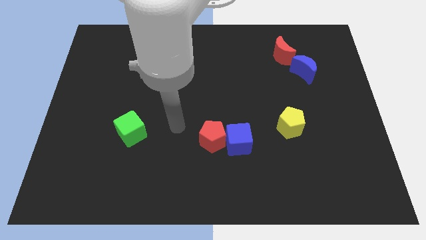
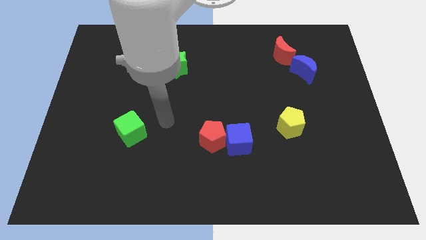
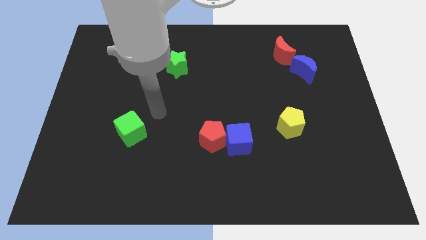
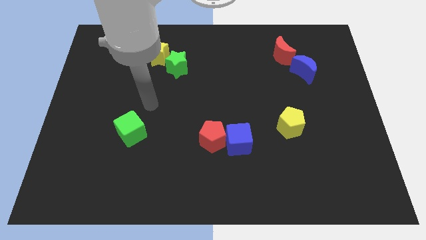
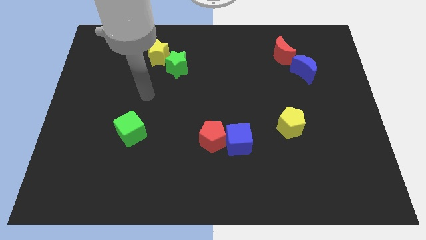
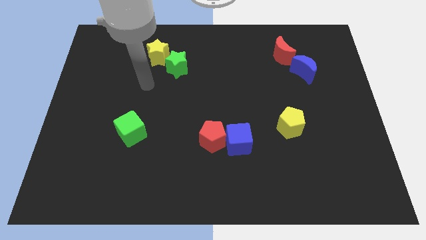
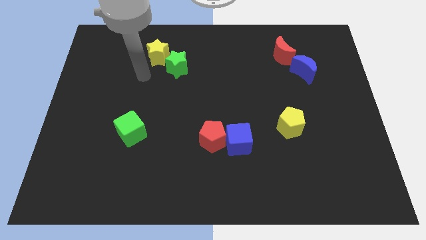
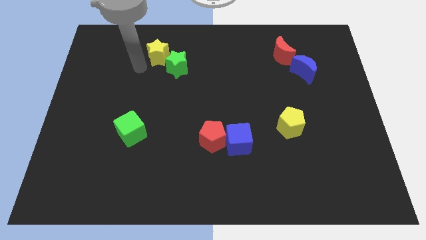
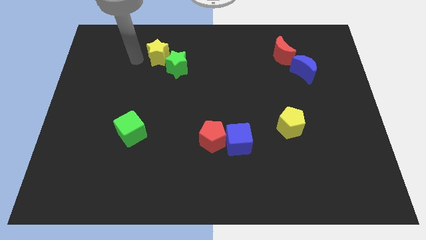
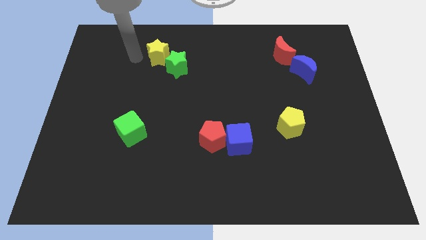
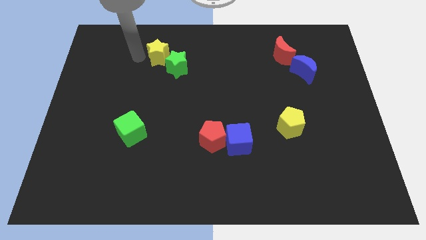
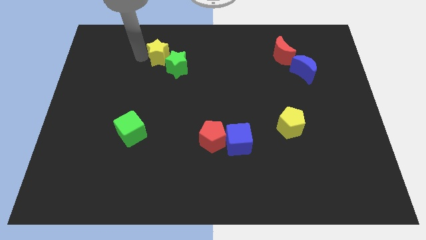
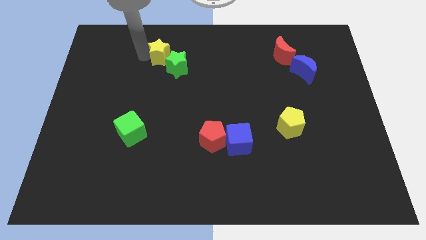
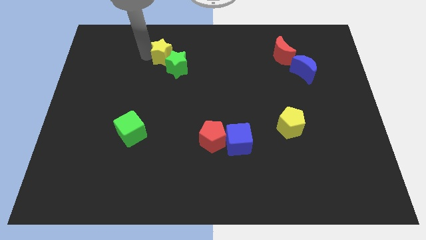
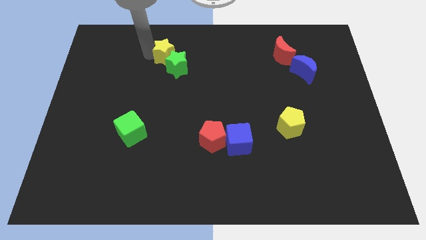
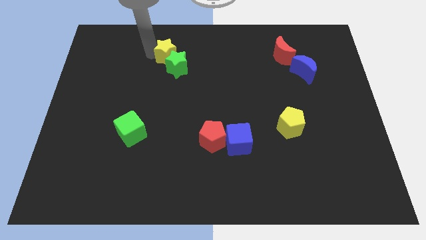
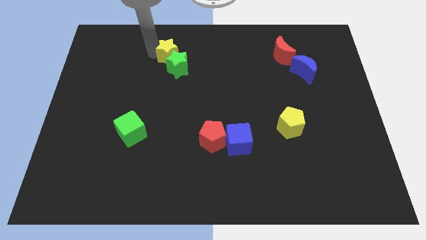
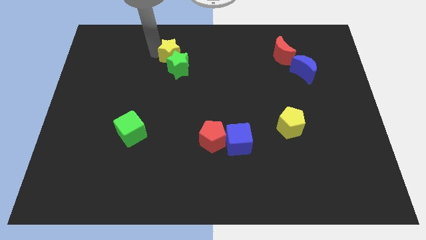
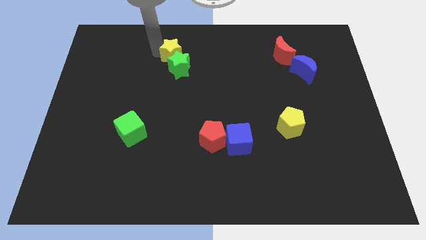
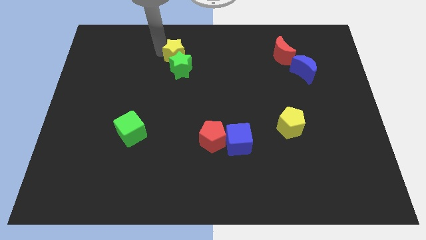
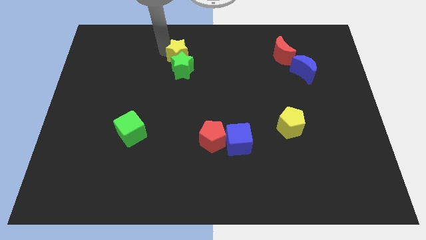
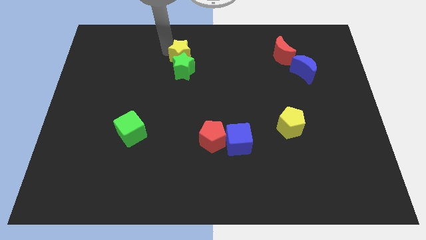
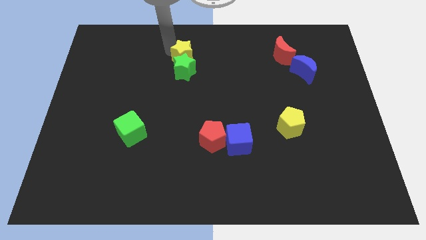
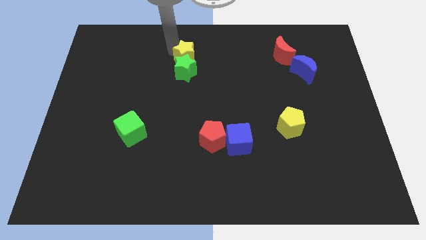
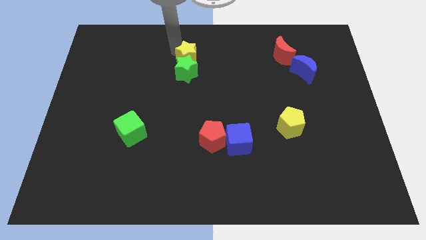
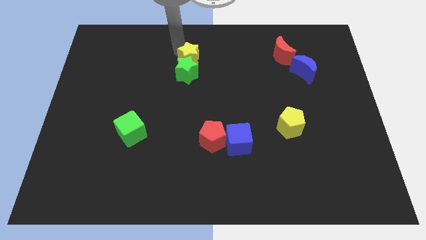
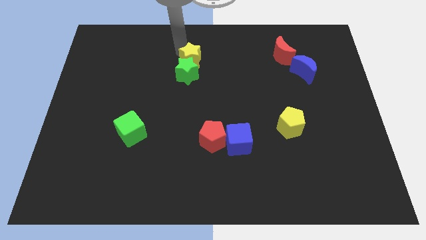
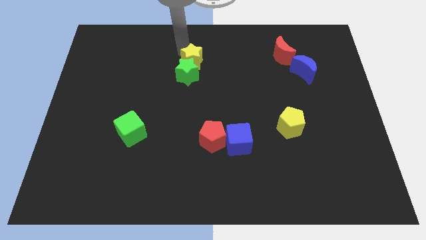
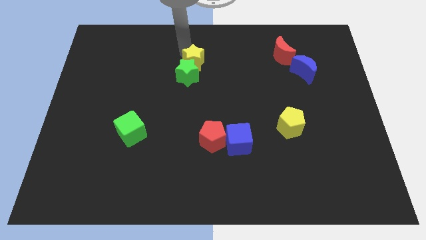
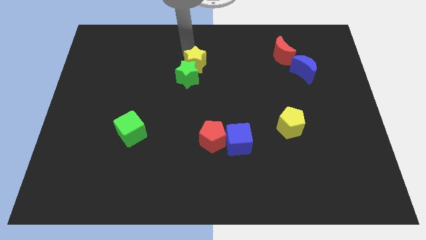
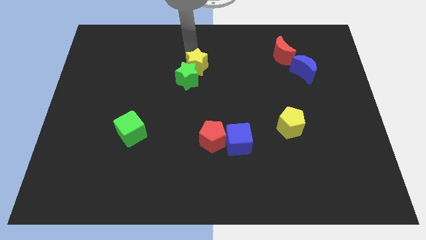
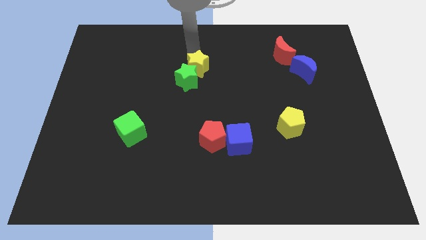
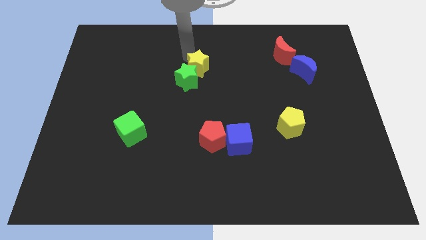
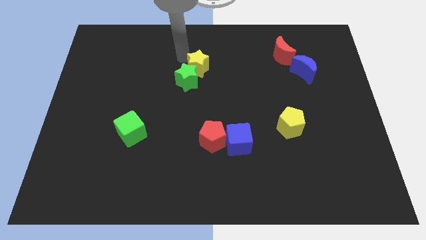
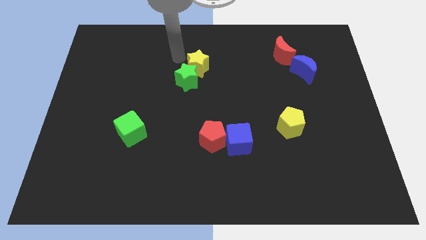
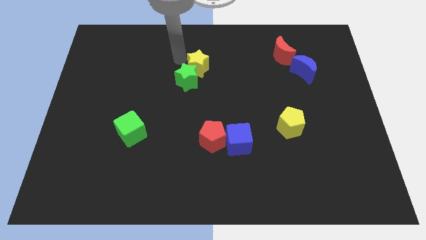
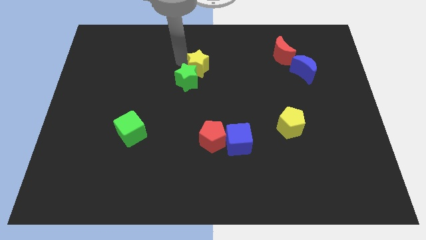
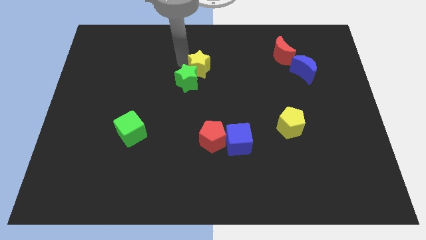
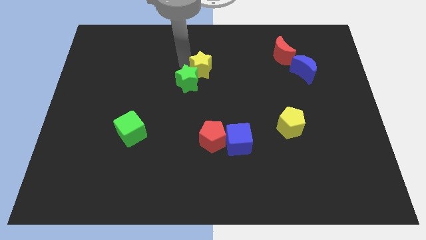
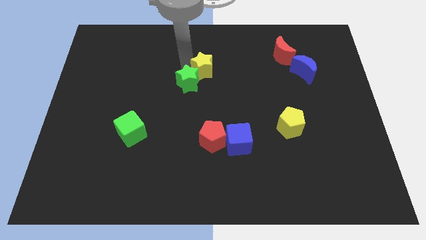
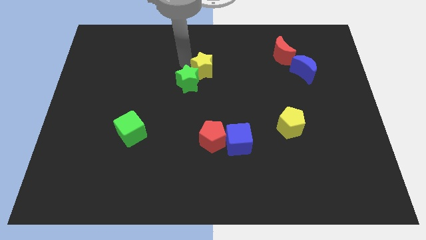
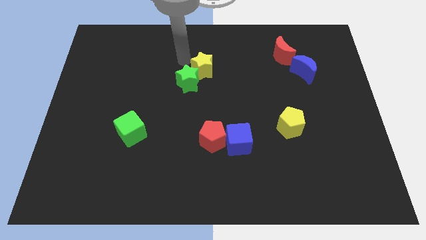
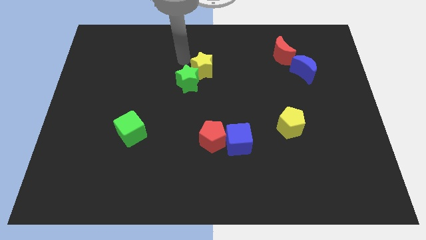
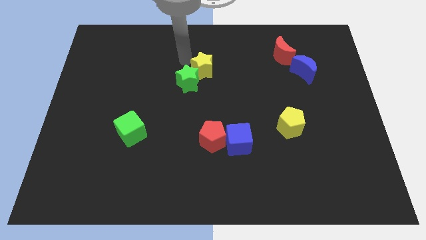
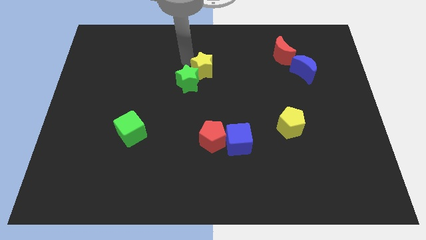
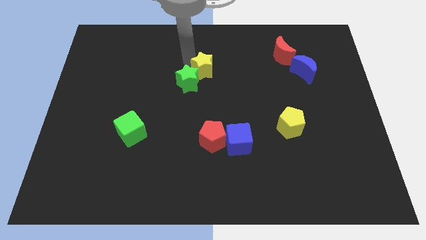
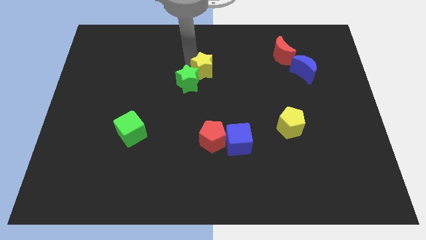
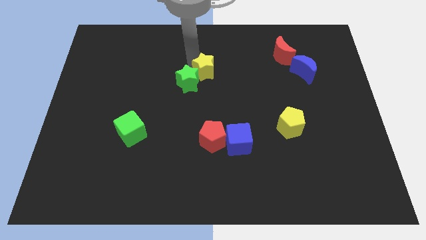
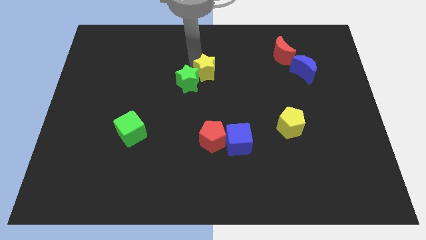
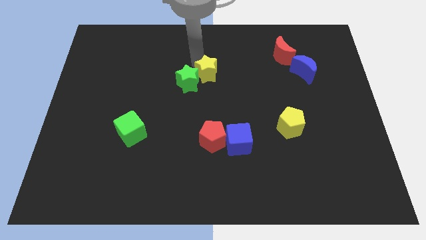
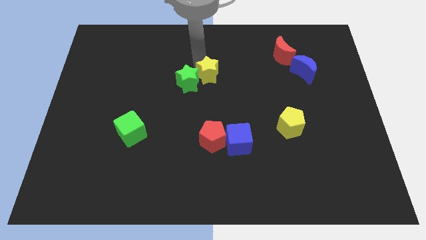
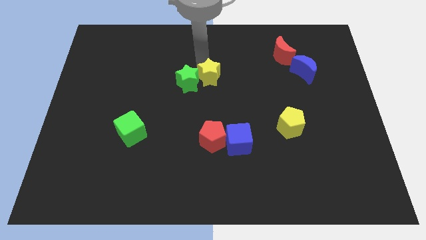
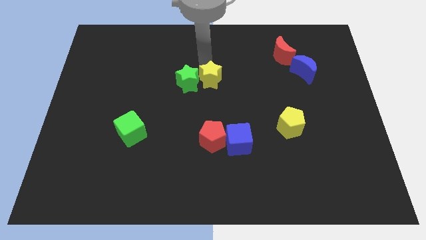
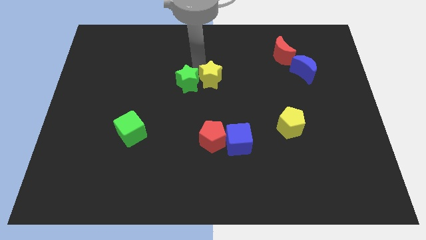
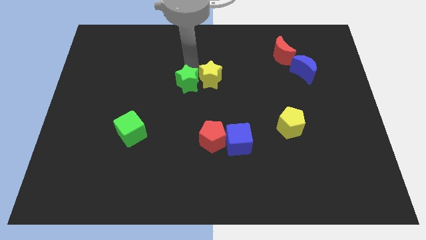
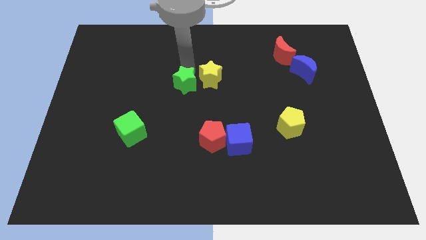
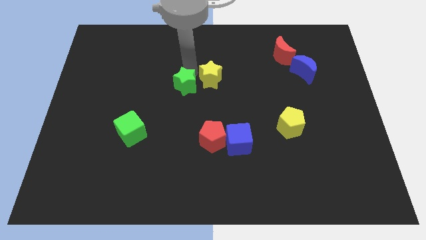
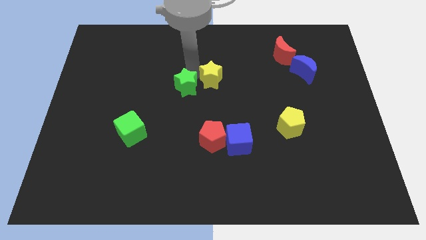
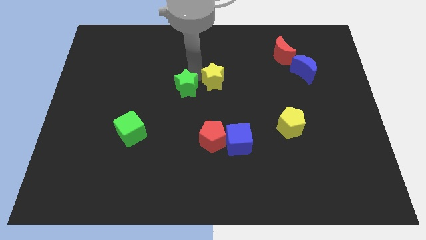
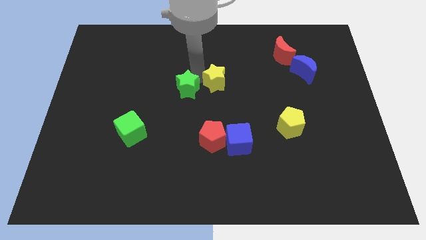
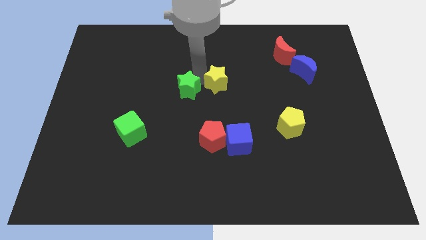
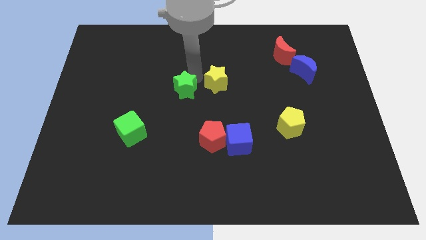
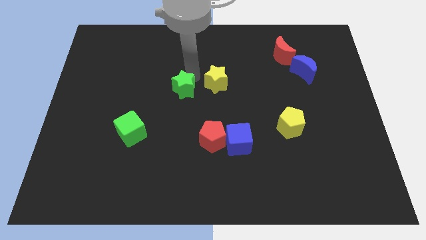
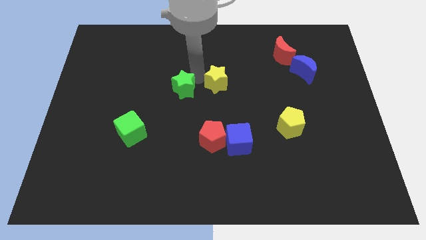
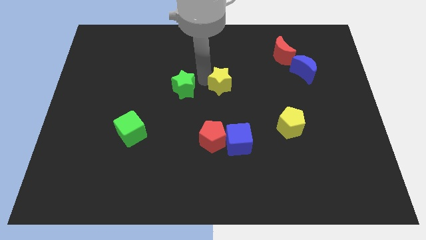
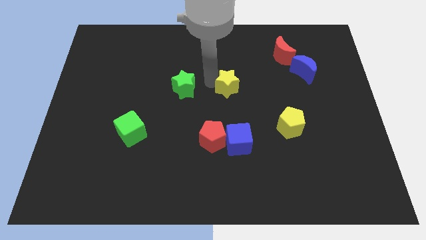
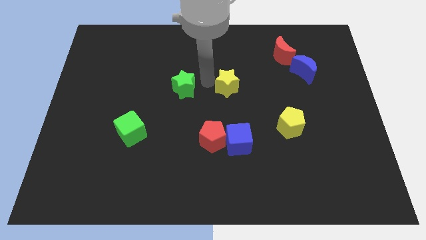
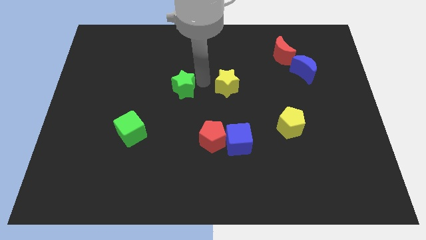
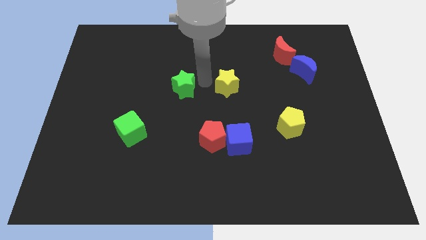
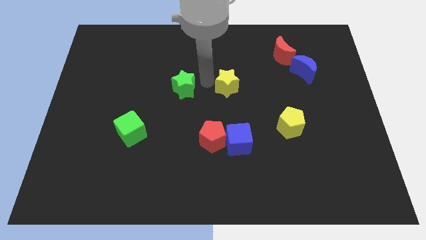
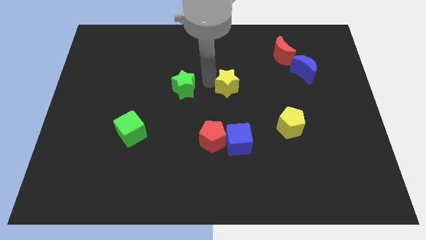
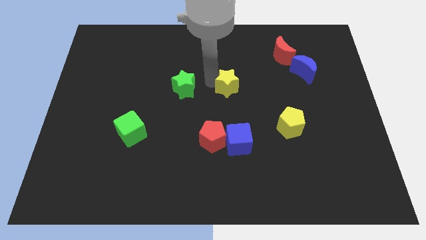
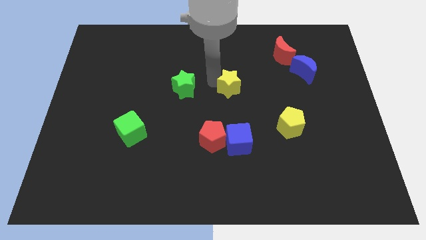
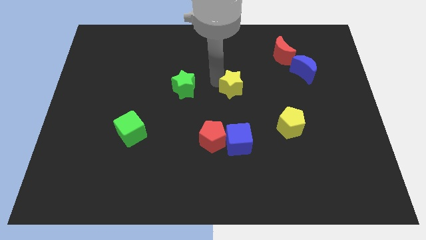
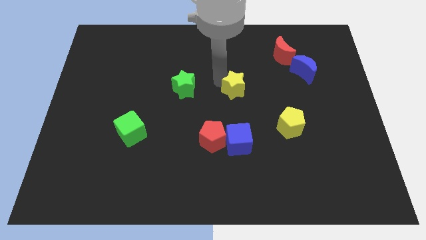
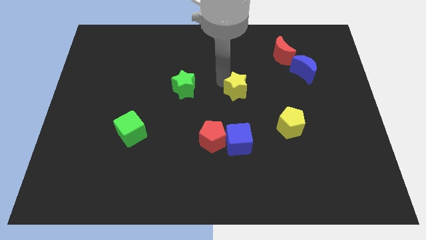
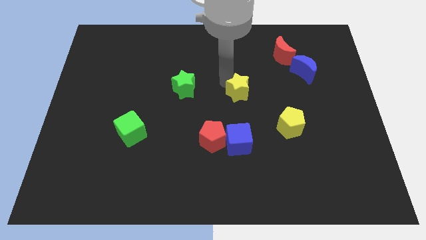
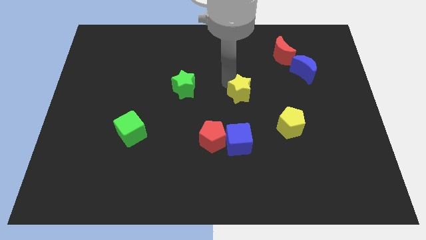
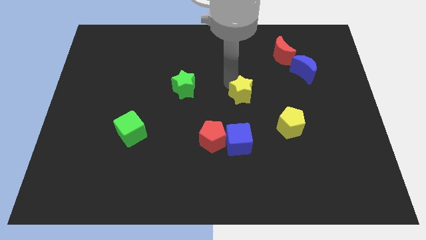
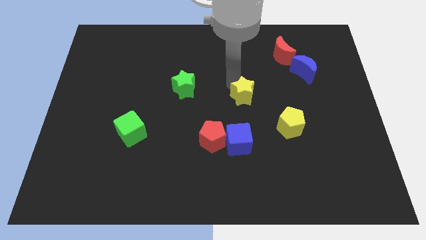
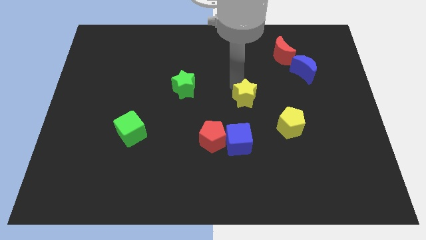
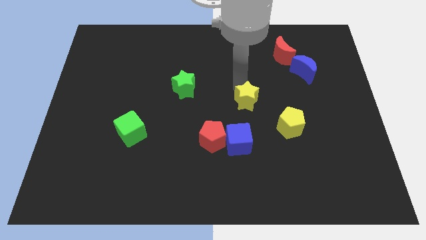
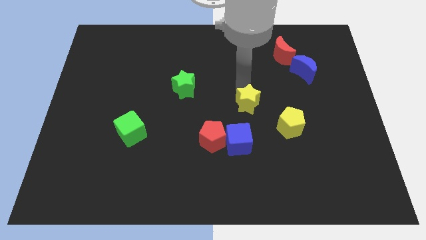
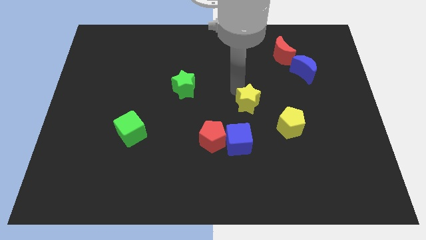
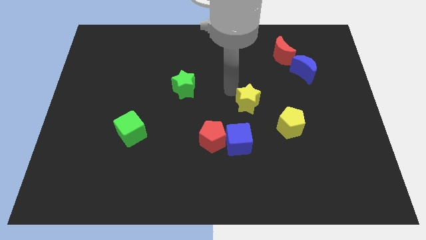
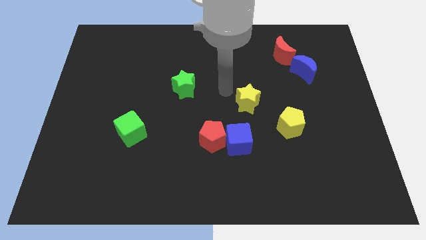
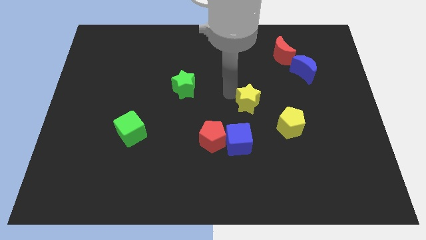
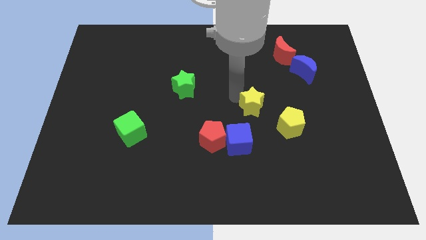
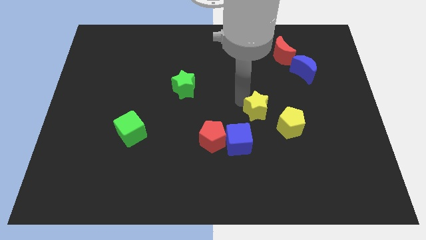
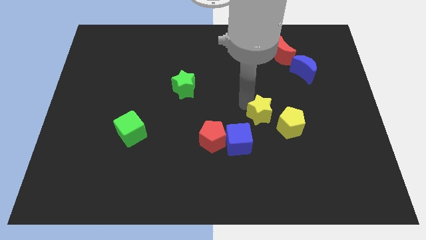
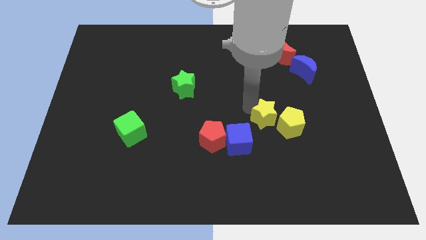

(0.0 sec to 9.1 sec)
move the yellow star close to the yellow pentagon
